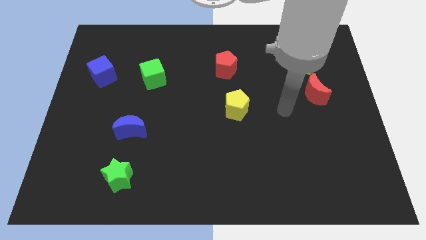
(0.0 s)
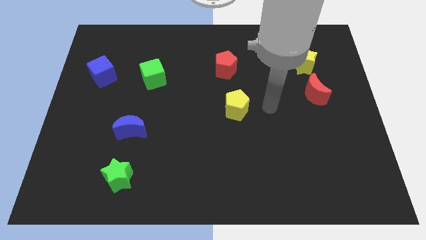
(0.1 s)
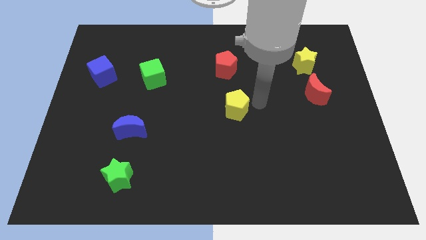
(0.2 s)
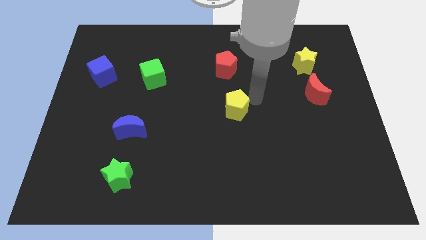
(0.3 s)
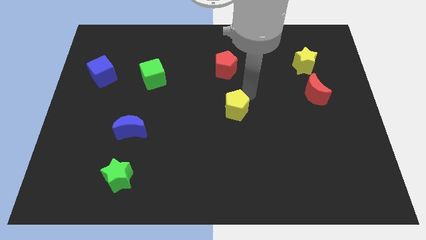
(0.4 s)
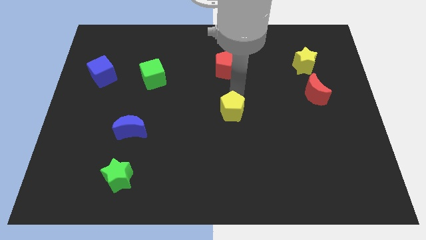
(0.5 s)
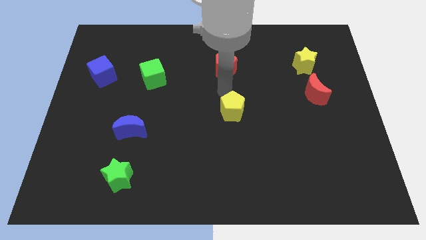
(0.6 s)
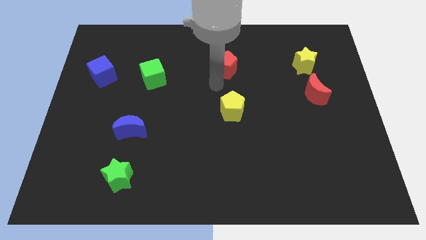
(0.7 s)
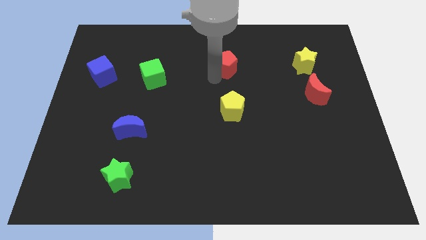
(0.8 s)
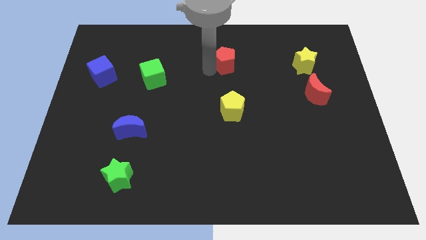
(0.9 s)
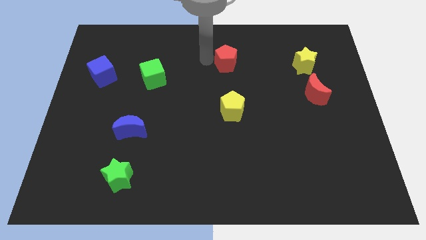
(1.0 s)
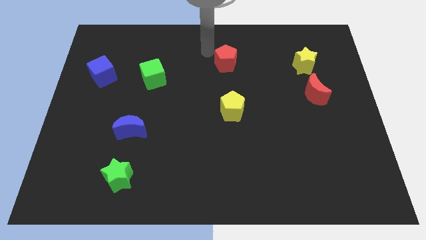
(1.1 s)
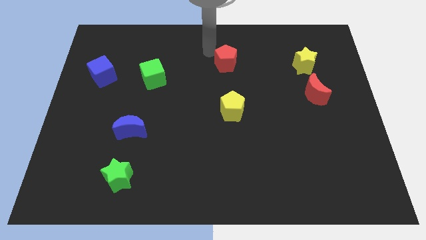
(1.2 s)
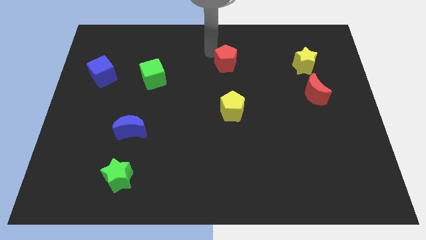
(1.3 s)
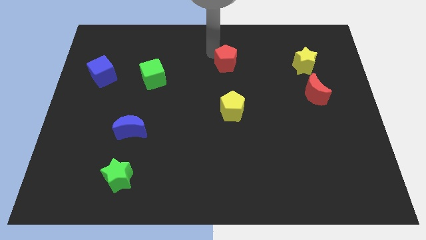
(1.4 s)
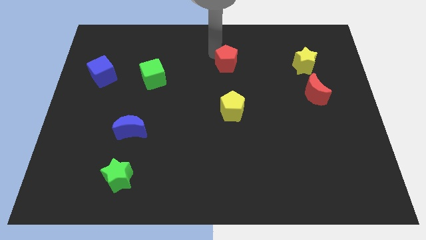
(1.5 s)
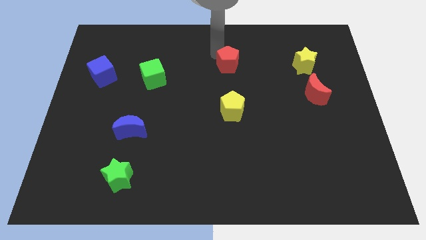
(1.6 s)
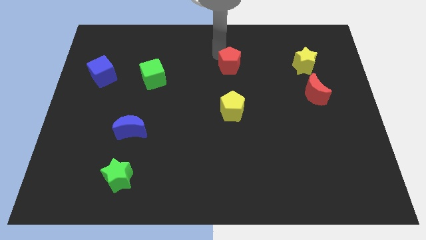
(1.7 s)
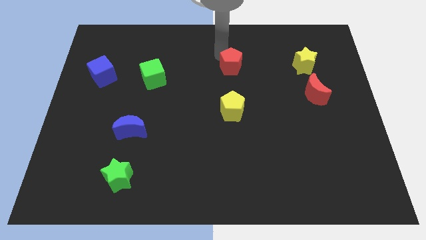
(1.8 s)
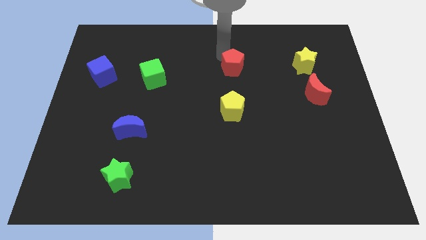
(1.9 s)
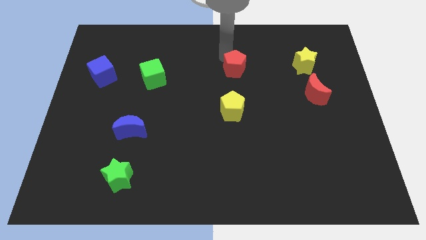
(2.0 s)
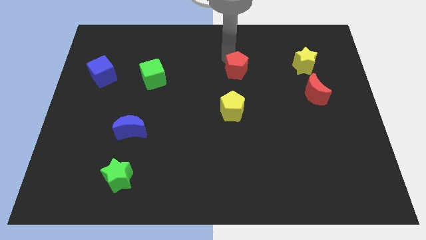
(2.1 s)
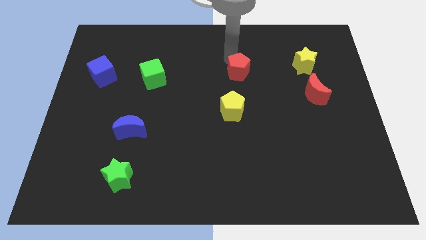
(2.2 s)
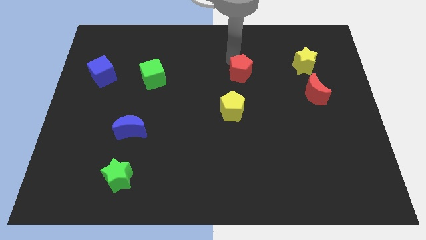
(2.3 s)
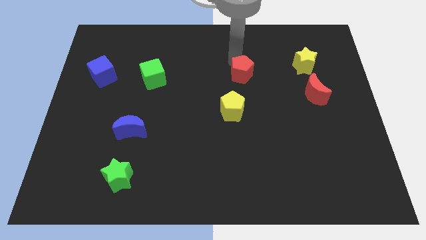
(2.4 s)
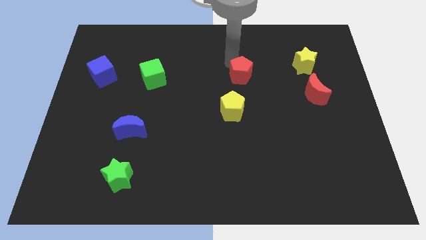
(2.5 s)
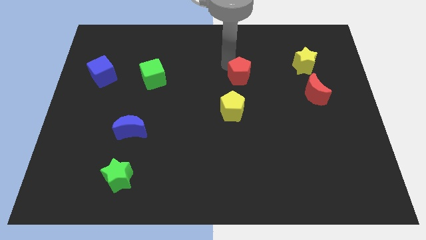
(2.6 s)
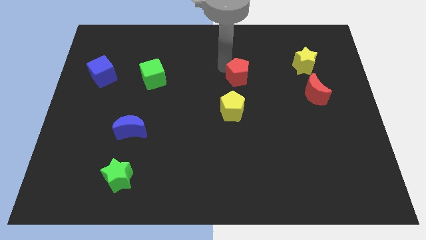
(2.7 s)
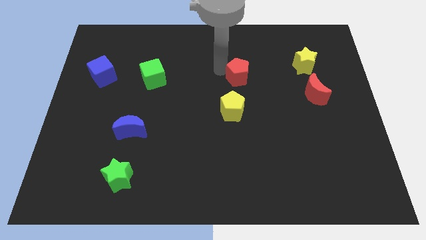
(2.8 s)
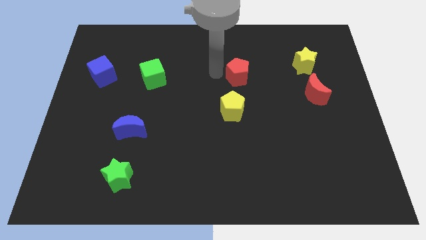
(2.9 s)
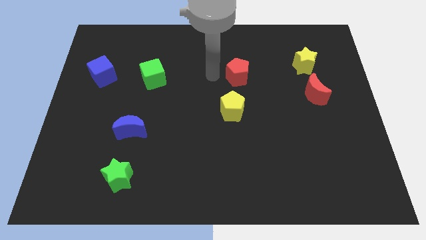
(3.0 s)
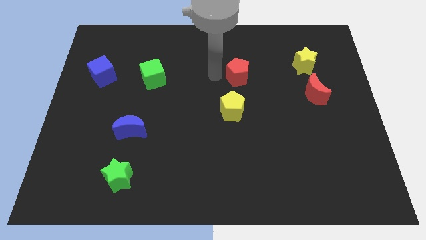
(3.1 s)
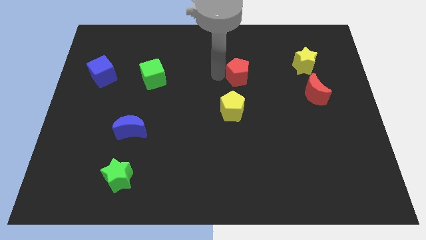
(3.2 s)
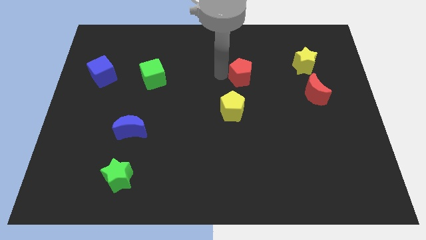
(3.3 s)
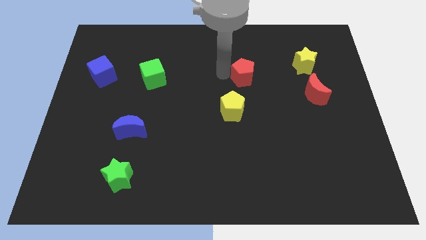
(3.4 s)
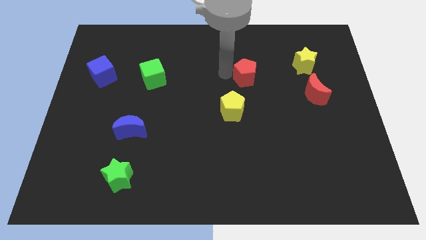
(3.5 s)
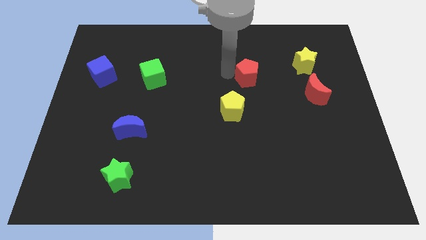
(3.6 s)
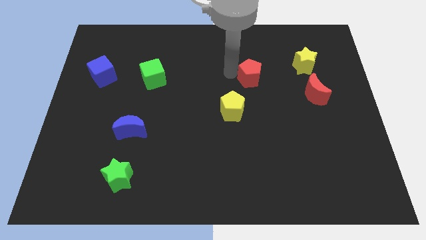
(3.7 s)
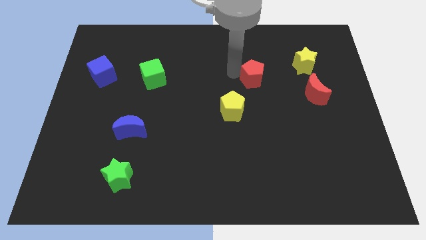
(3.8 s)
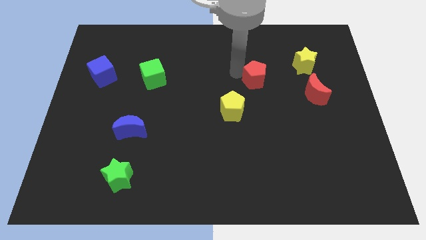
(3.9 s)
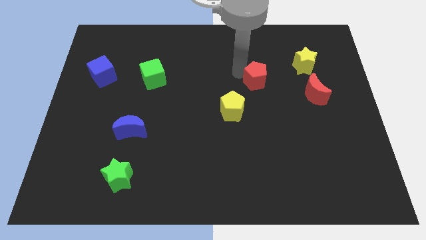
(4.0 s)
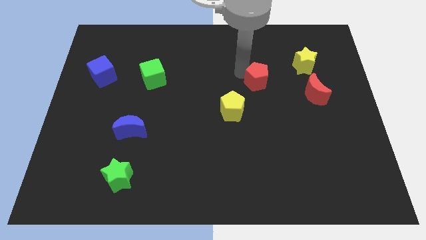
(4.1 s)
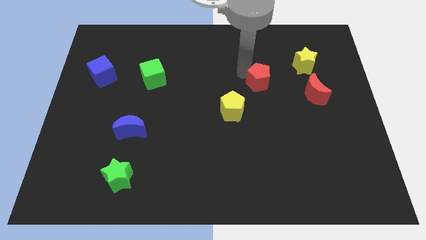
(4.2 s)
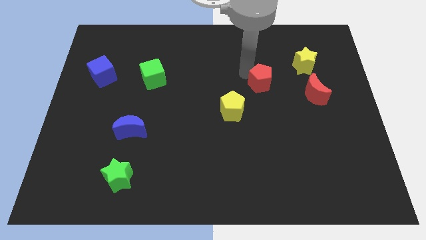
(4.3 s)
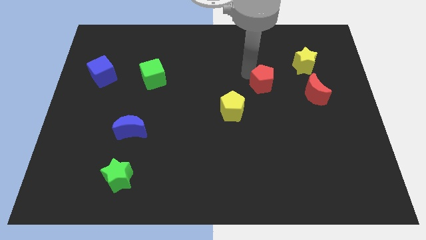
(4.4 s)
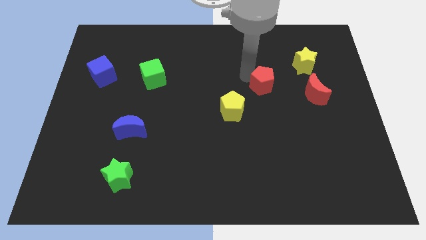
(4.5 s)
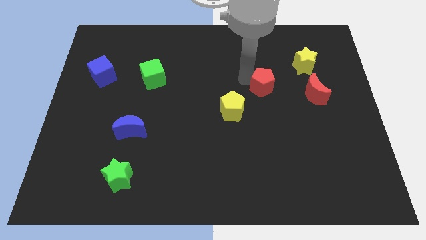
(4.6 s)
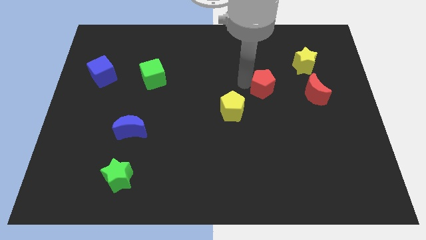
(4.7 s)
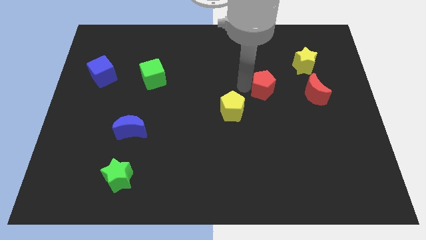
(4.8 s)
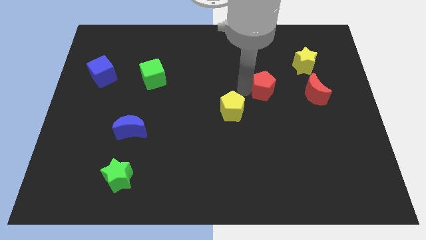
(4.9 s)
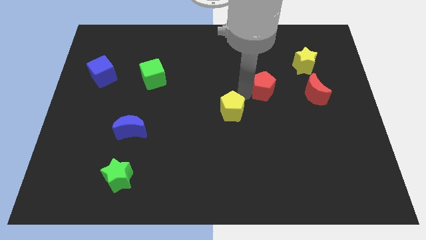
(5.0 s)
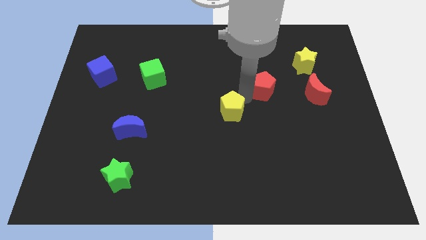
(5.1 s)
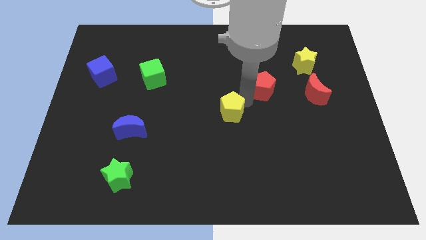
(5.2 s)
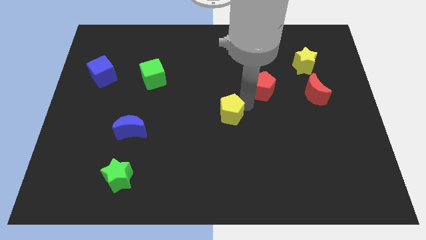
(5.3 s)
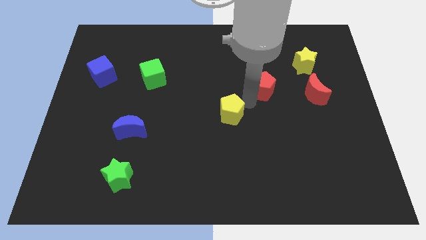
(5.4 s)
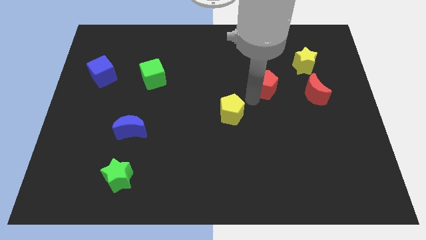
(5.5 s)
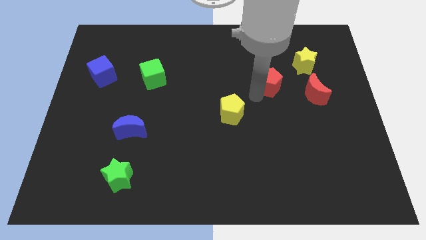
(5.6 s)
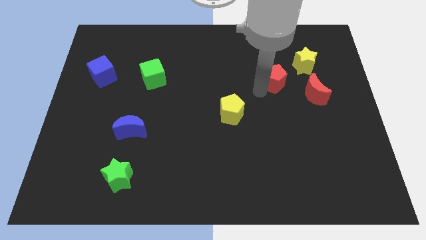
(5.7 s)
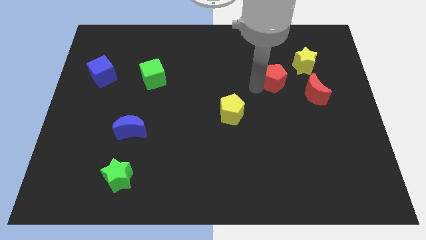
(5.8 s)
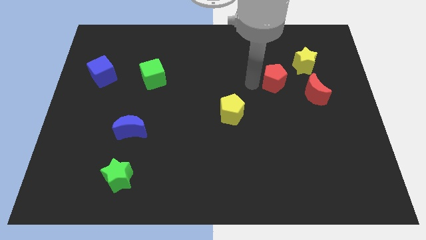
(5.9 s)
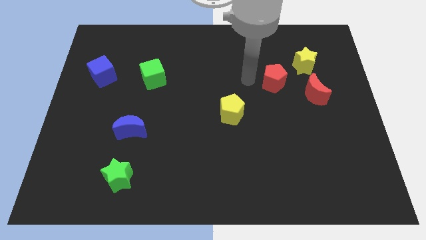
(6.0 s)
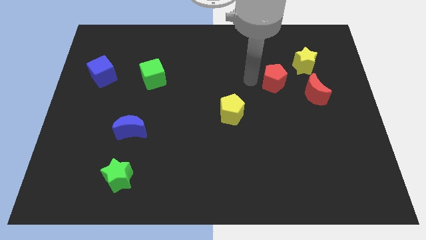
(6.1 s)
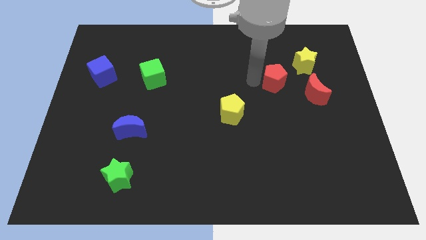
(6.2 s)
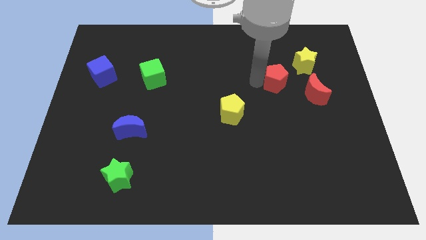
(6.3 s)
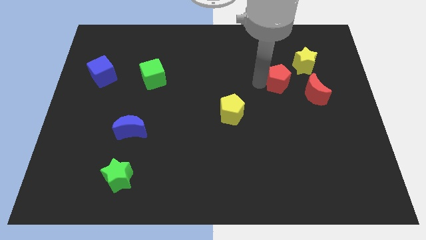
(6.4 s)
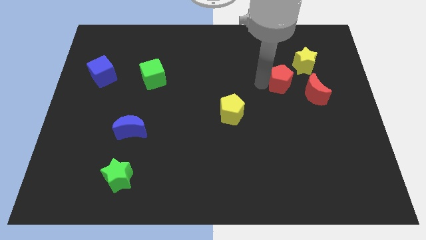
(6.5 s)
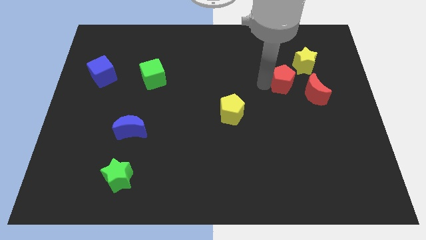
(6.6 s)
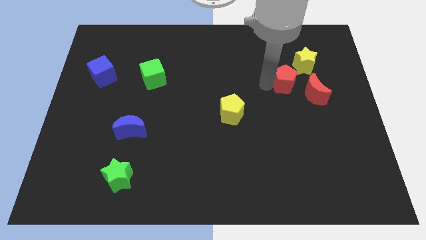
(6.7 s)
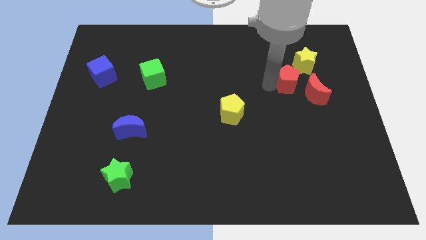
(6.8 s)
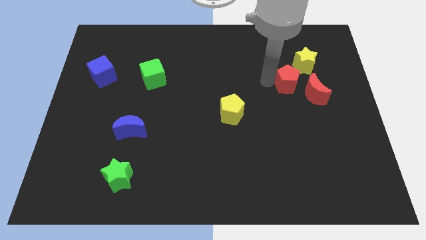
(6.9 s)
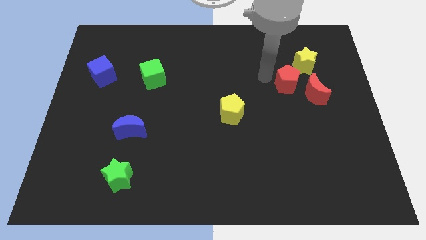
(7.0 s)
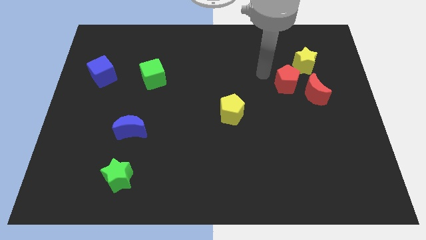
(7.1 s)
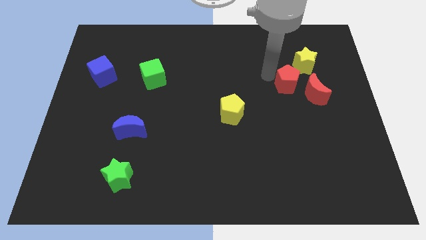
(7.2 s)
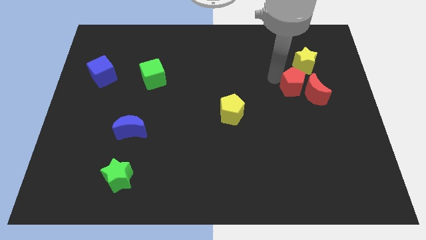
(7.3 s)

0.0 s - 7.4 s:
push the red pentagon close to the red moon
